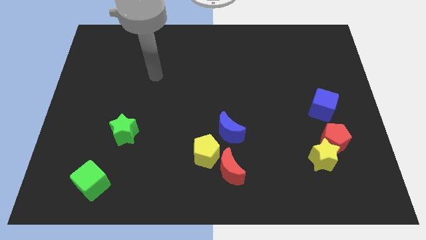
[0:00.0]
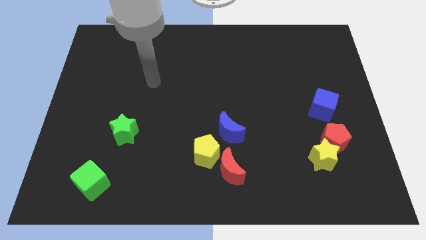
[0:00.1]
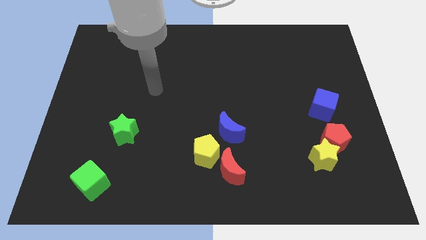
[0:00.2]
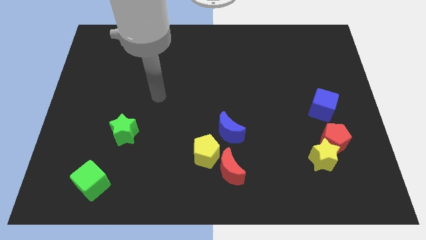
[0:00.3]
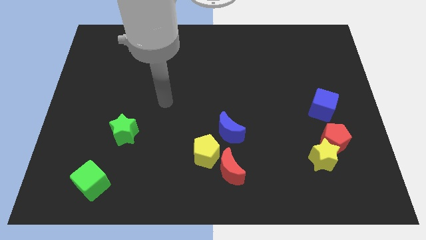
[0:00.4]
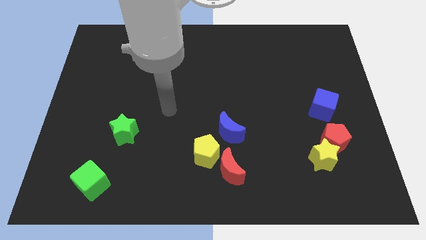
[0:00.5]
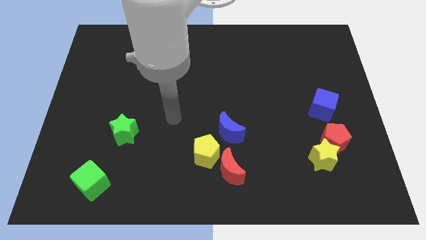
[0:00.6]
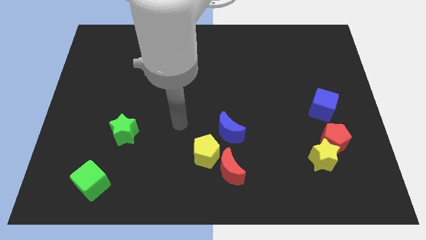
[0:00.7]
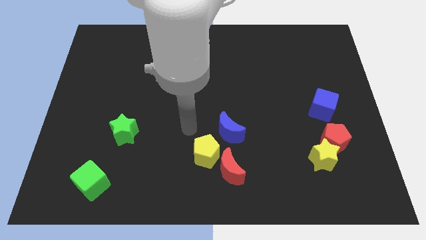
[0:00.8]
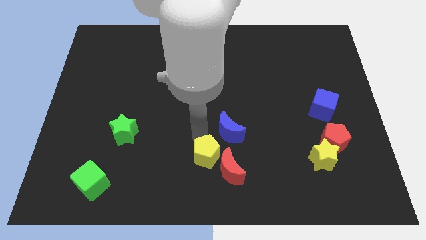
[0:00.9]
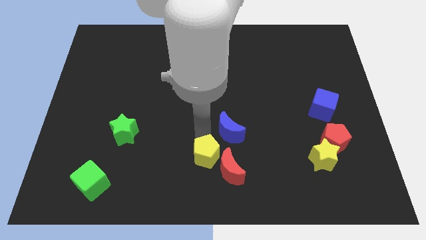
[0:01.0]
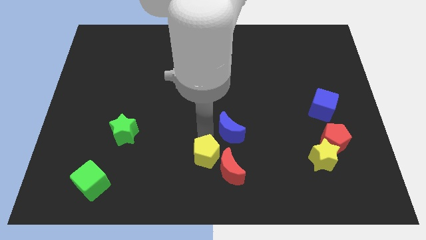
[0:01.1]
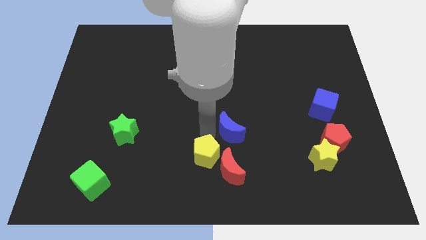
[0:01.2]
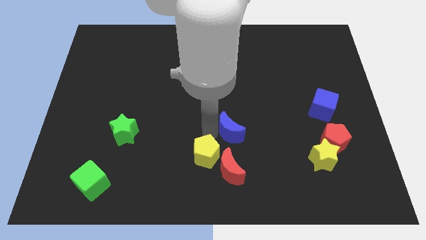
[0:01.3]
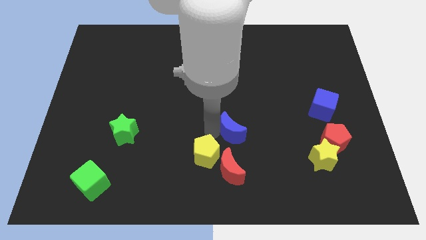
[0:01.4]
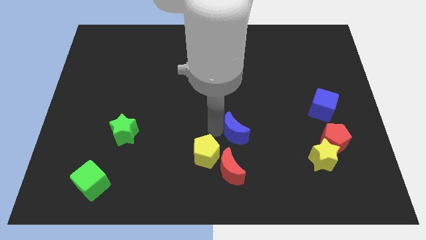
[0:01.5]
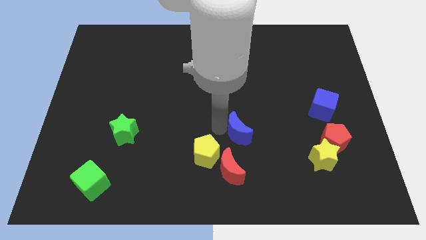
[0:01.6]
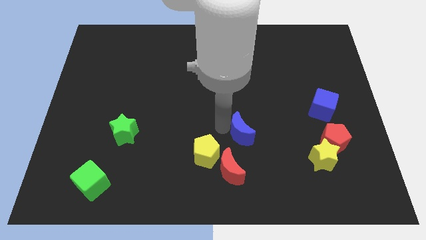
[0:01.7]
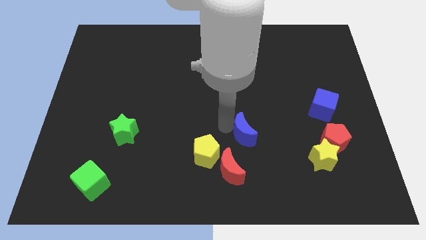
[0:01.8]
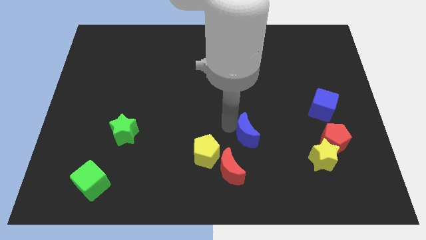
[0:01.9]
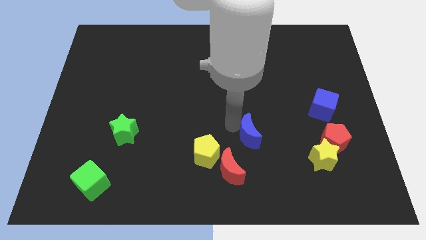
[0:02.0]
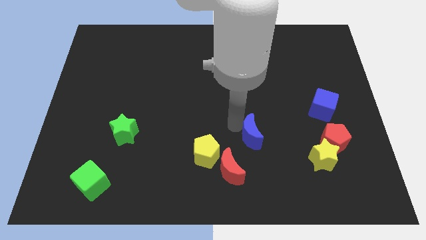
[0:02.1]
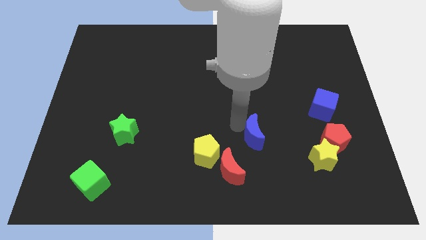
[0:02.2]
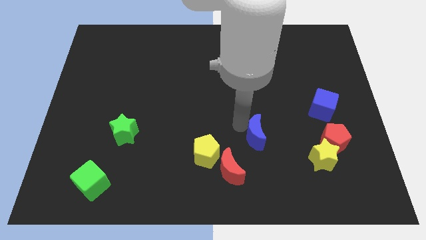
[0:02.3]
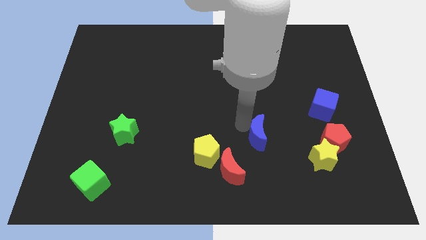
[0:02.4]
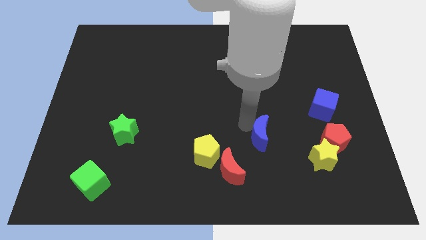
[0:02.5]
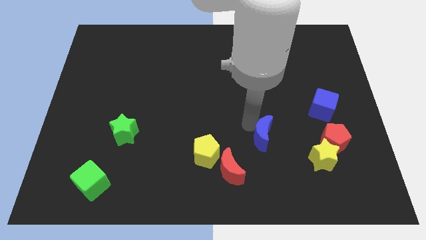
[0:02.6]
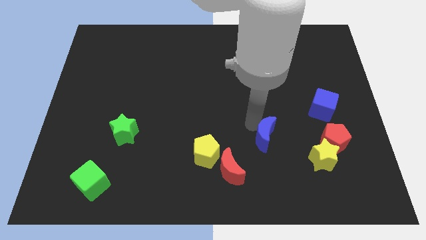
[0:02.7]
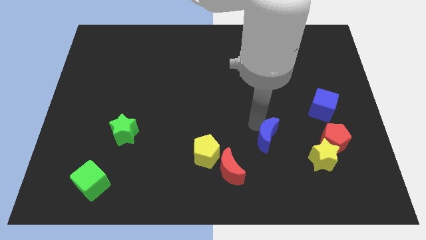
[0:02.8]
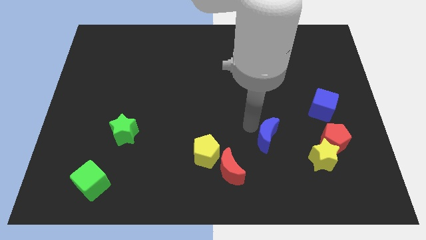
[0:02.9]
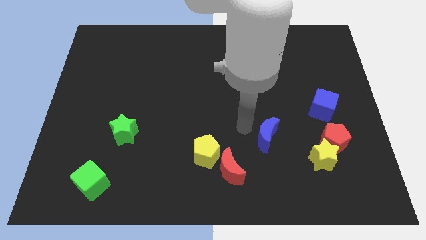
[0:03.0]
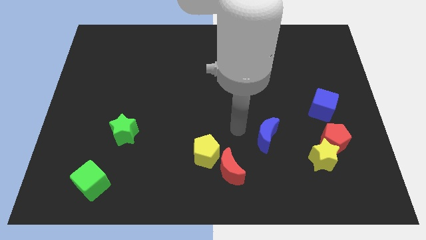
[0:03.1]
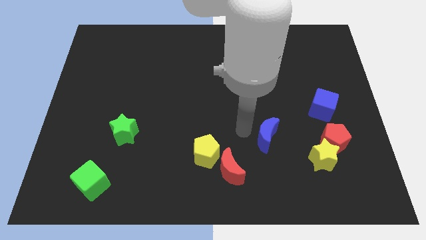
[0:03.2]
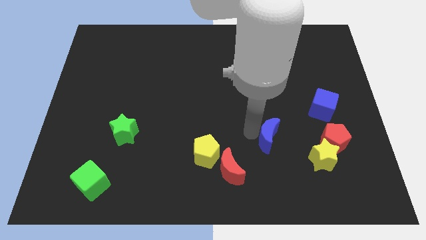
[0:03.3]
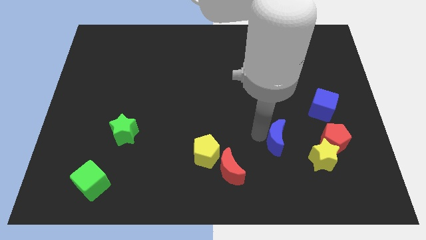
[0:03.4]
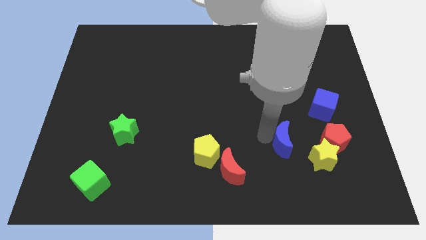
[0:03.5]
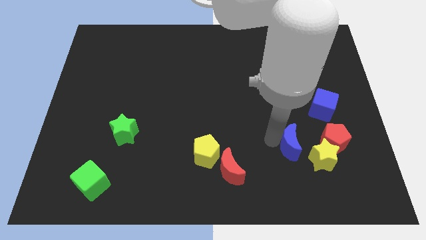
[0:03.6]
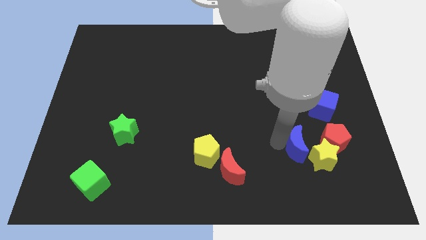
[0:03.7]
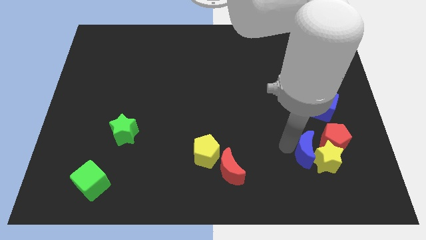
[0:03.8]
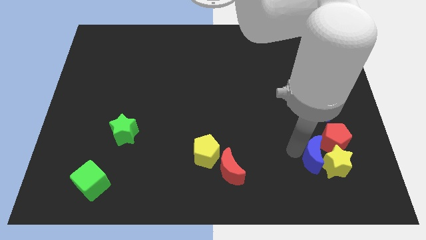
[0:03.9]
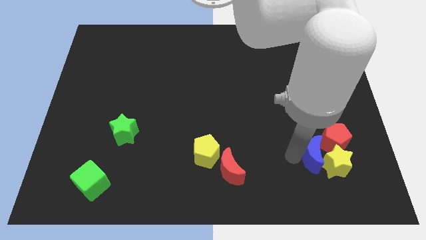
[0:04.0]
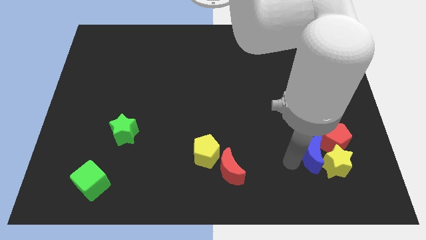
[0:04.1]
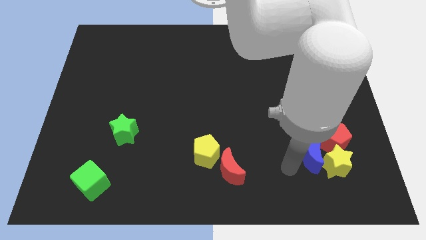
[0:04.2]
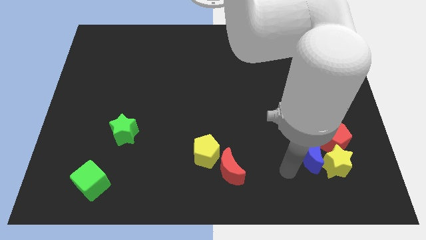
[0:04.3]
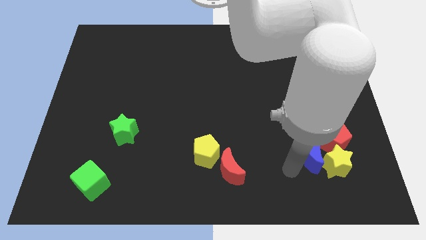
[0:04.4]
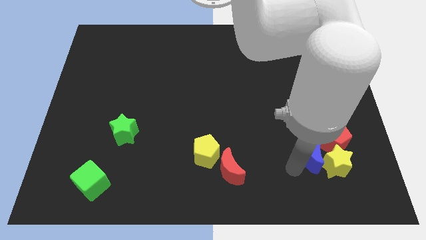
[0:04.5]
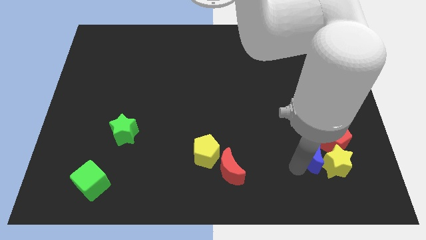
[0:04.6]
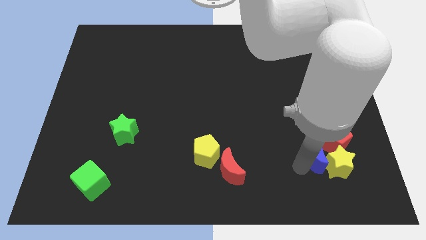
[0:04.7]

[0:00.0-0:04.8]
slide the blue moon to the red pentagon

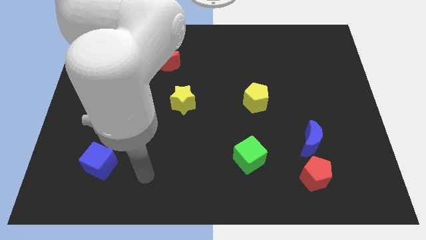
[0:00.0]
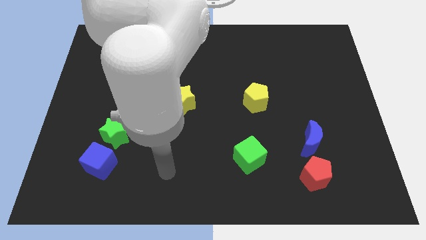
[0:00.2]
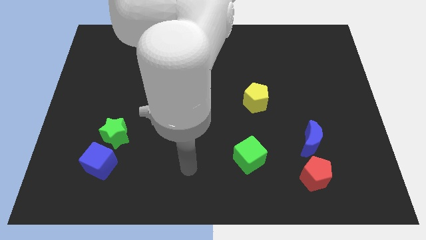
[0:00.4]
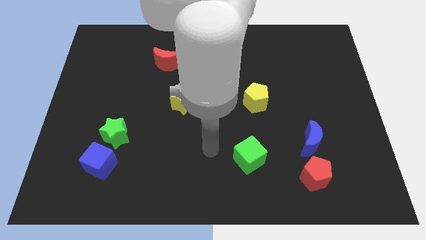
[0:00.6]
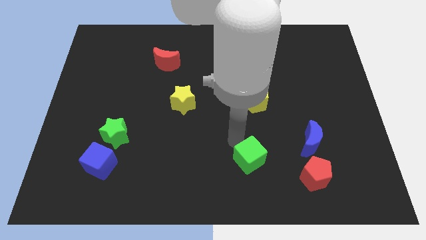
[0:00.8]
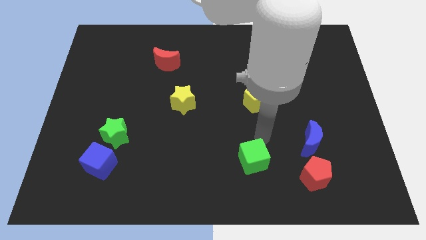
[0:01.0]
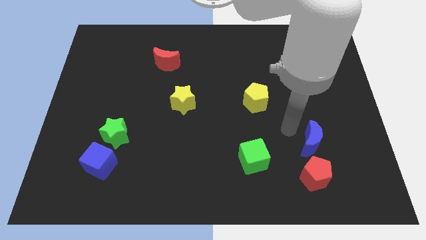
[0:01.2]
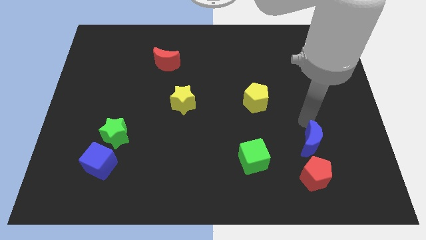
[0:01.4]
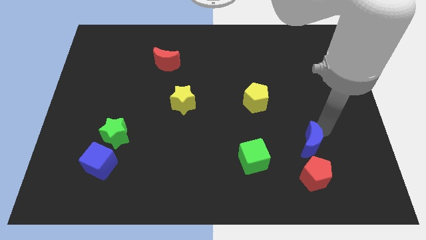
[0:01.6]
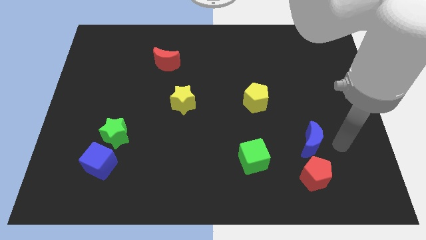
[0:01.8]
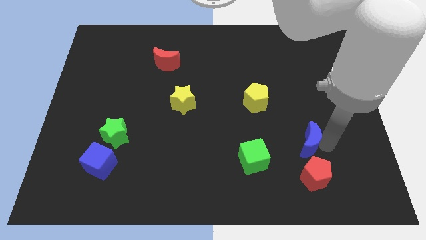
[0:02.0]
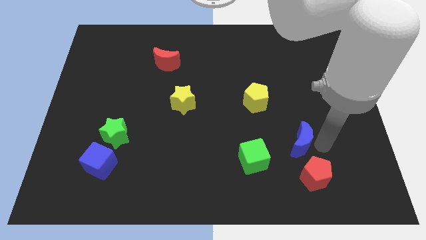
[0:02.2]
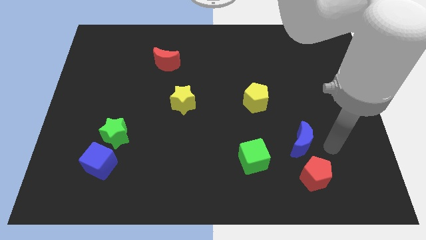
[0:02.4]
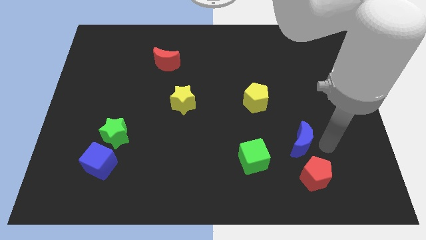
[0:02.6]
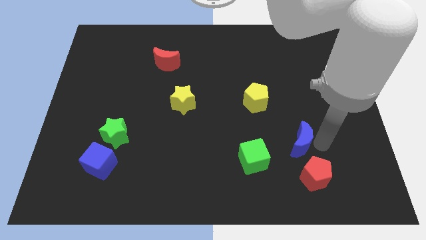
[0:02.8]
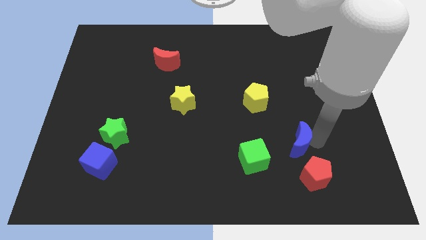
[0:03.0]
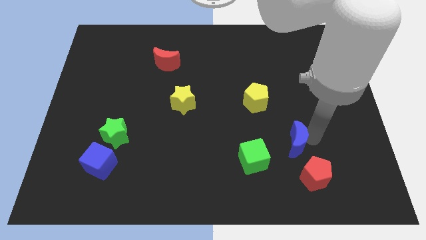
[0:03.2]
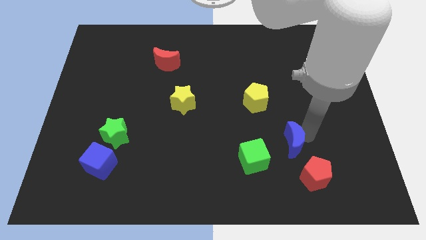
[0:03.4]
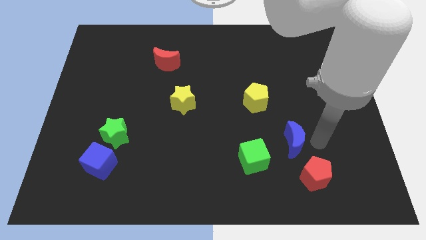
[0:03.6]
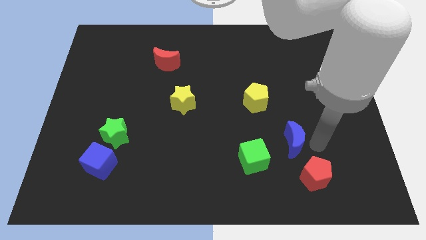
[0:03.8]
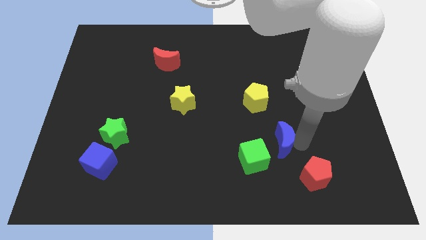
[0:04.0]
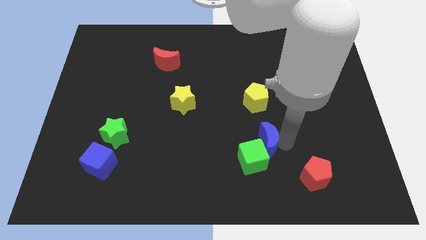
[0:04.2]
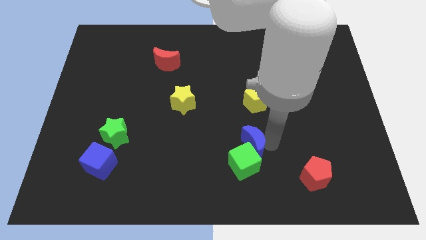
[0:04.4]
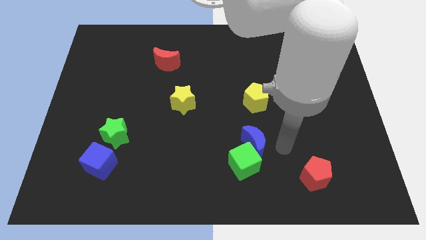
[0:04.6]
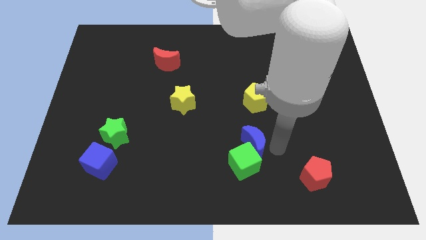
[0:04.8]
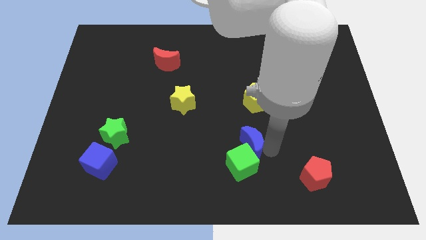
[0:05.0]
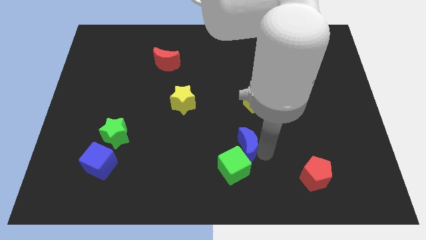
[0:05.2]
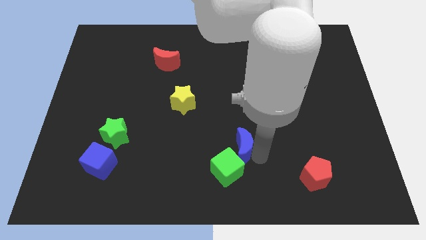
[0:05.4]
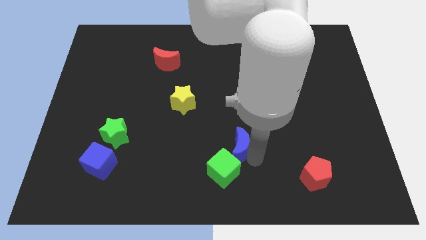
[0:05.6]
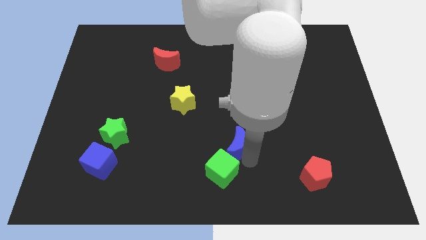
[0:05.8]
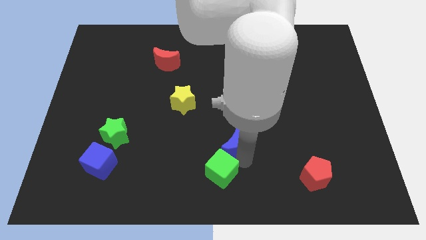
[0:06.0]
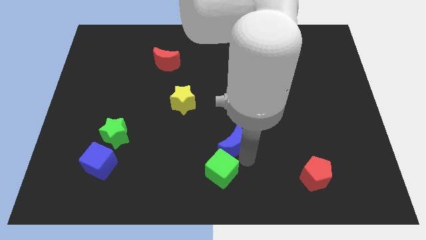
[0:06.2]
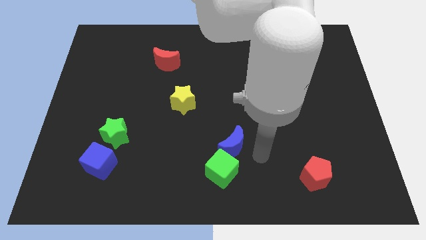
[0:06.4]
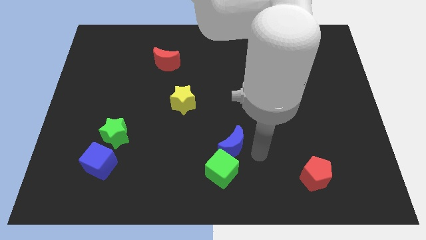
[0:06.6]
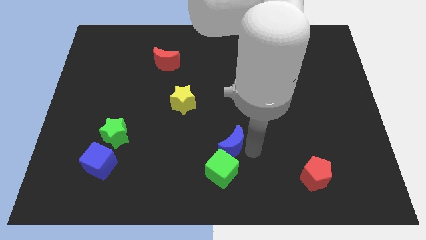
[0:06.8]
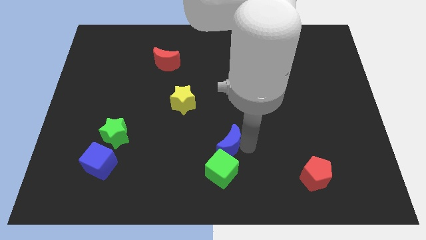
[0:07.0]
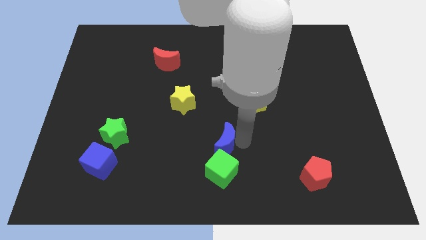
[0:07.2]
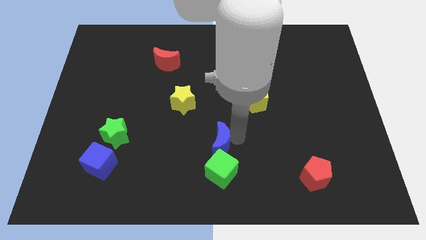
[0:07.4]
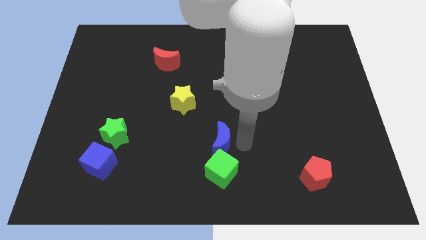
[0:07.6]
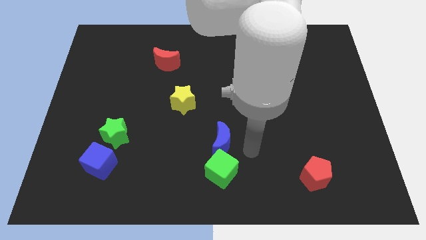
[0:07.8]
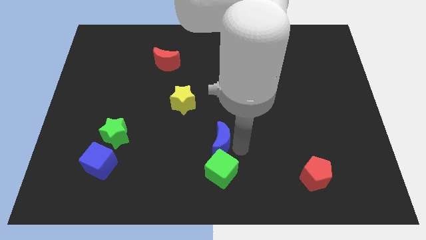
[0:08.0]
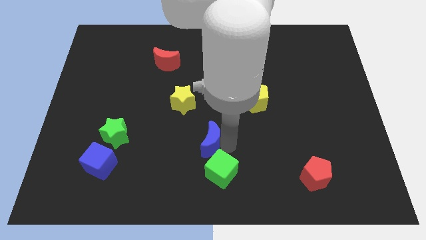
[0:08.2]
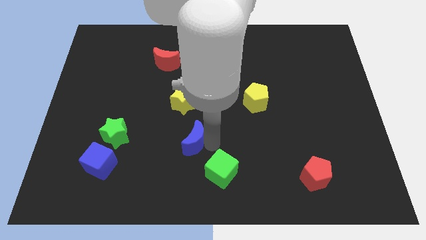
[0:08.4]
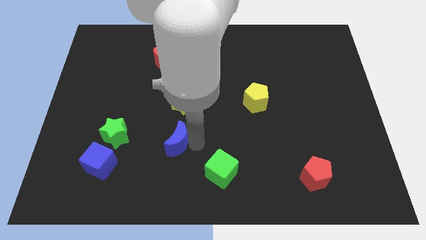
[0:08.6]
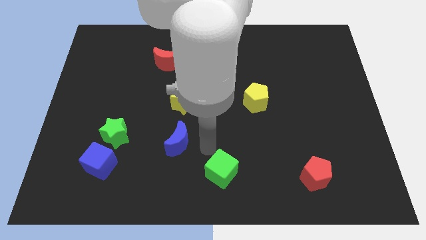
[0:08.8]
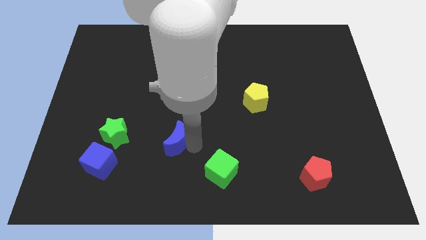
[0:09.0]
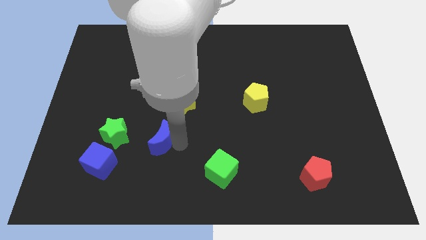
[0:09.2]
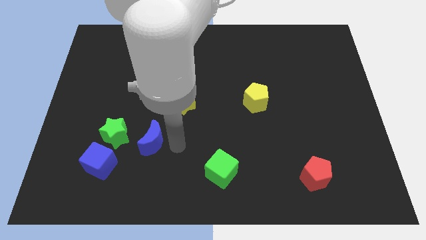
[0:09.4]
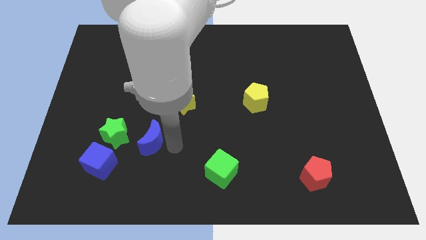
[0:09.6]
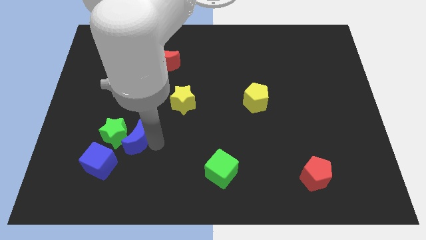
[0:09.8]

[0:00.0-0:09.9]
move the blue moon close to the green star
